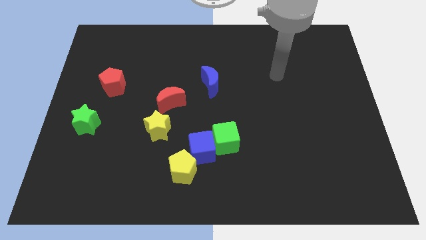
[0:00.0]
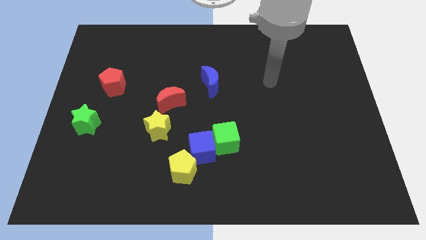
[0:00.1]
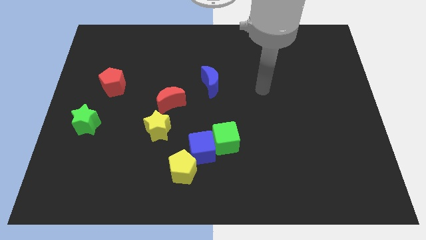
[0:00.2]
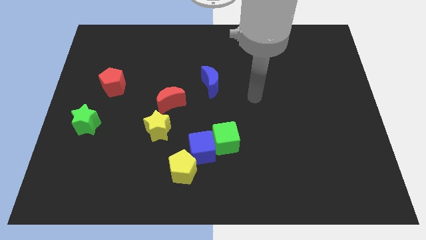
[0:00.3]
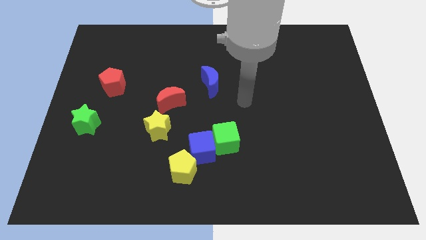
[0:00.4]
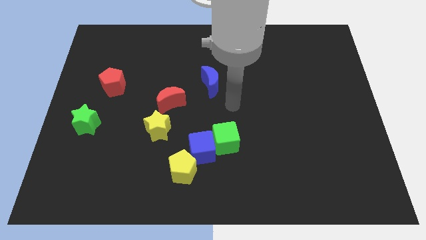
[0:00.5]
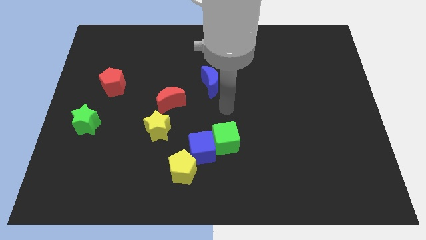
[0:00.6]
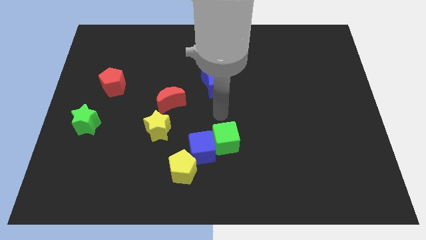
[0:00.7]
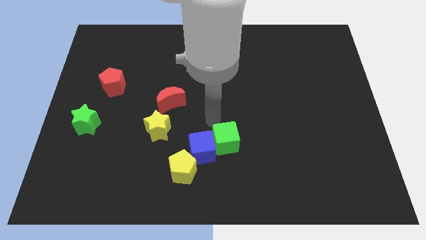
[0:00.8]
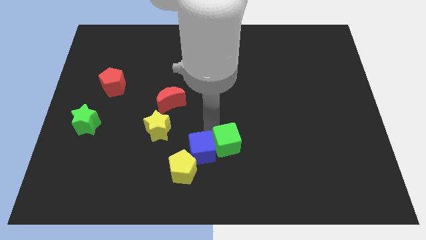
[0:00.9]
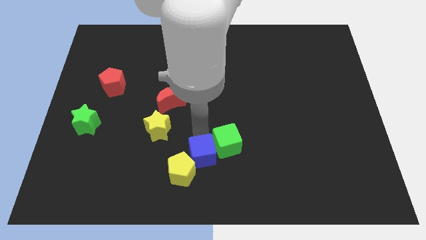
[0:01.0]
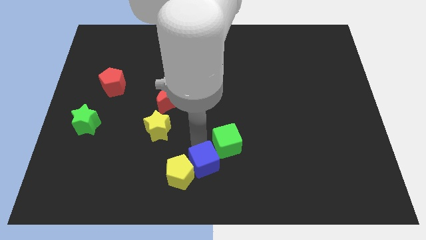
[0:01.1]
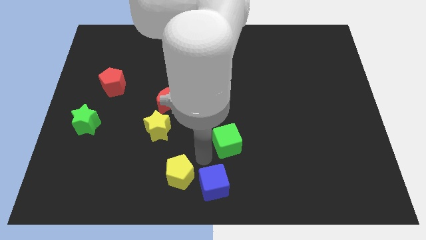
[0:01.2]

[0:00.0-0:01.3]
move the green cube away from the blue cube

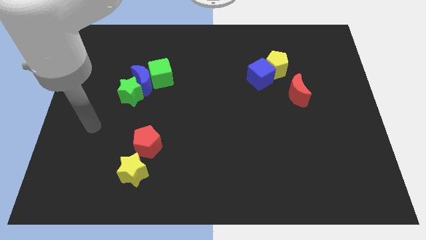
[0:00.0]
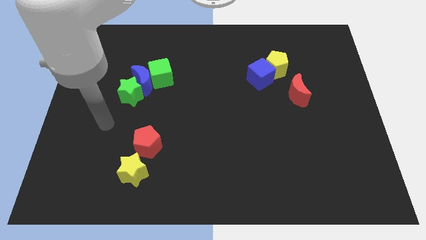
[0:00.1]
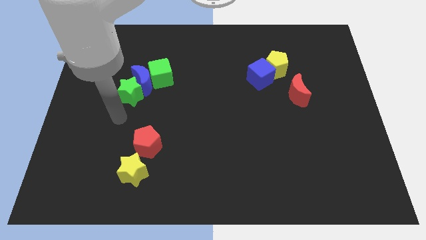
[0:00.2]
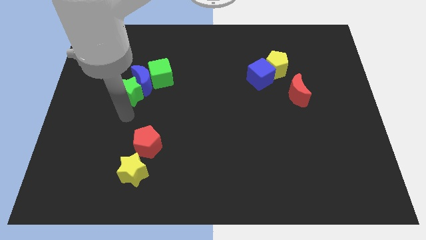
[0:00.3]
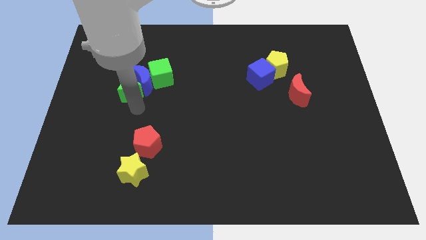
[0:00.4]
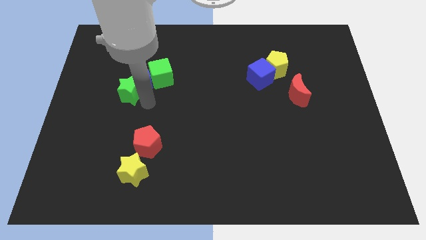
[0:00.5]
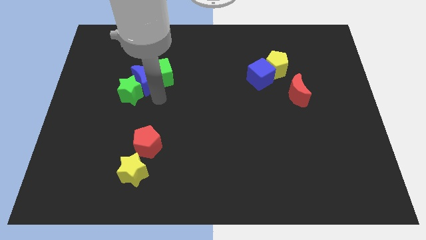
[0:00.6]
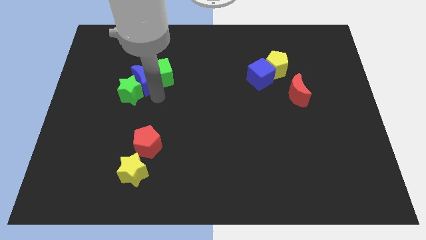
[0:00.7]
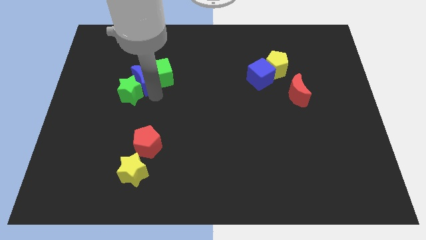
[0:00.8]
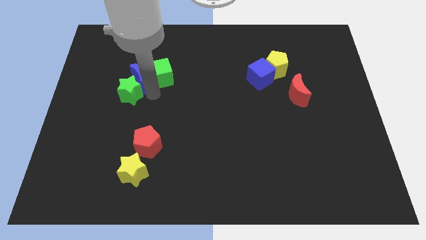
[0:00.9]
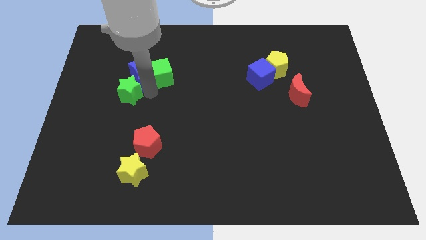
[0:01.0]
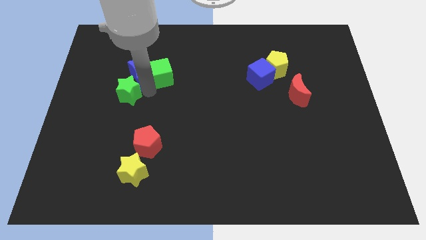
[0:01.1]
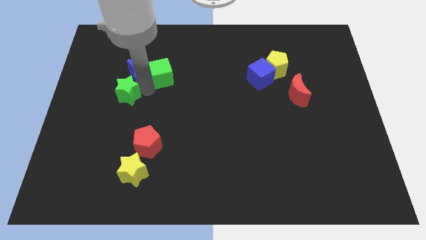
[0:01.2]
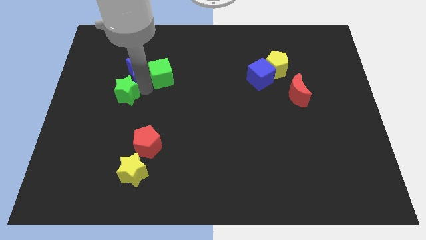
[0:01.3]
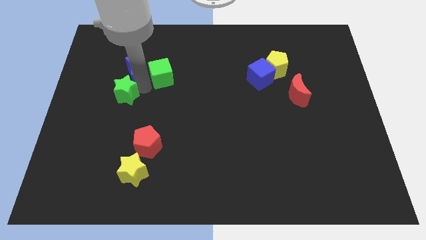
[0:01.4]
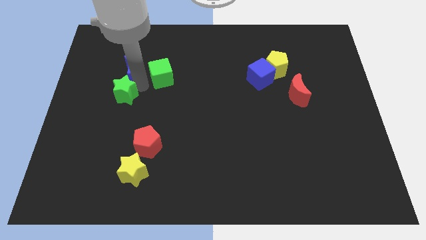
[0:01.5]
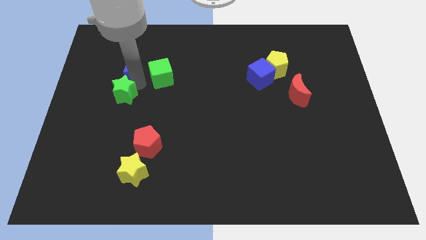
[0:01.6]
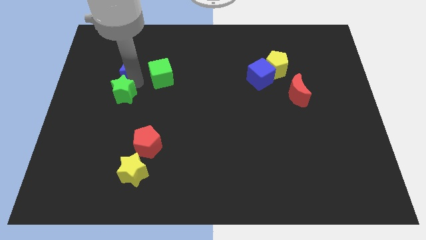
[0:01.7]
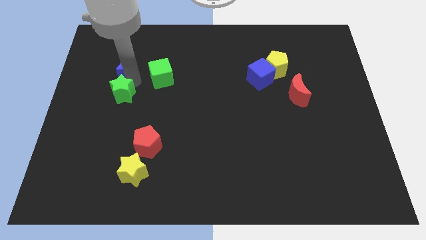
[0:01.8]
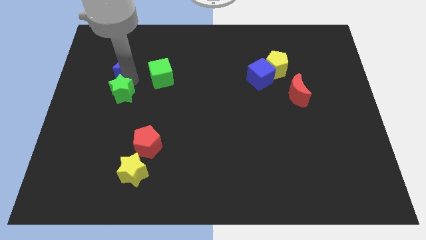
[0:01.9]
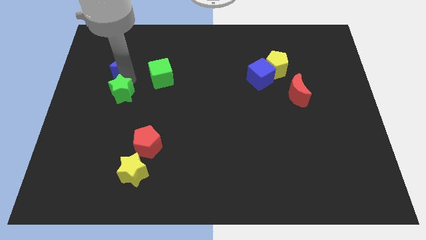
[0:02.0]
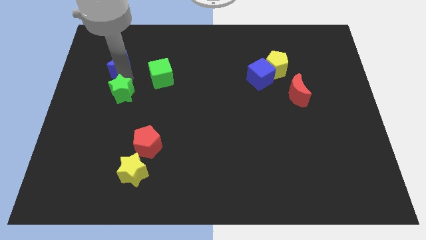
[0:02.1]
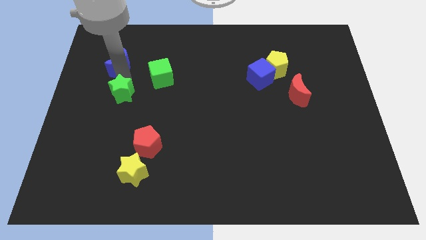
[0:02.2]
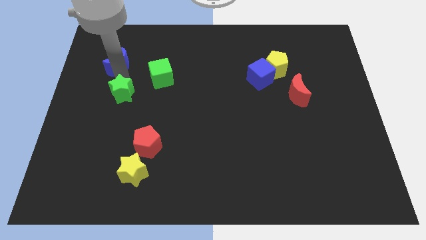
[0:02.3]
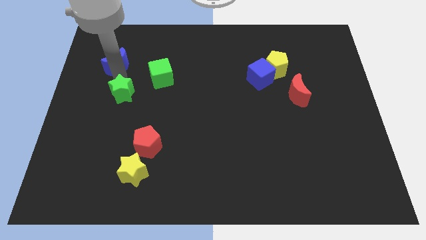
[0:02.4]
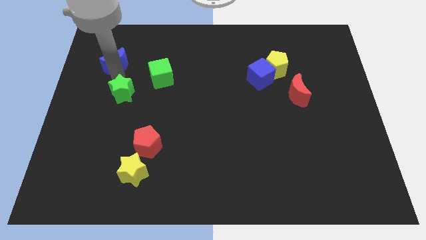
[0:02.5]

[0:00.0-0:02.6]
pull the blue moon apart from the green cube and green star

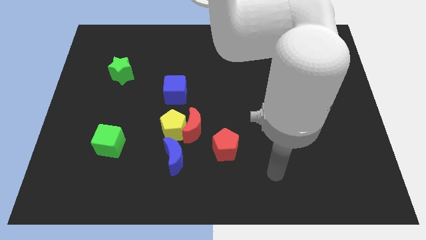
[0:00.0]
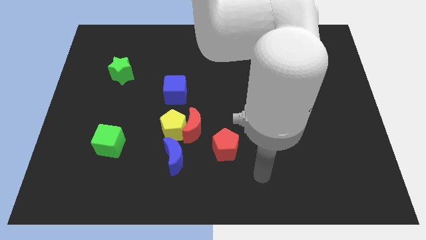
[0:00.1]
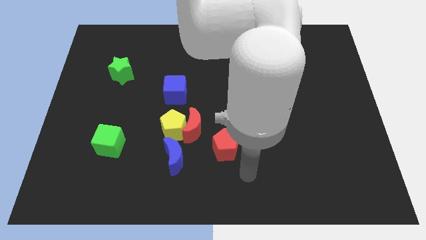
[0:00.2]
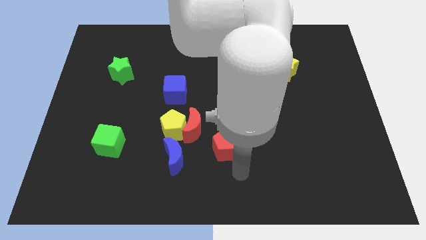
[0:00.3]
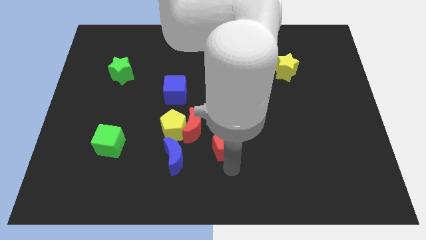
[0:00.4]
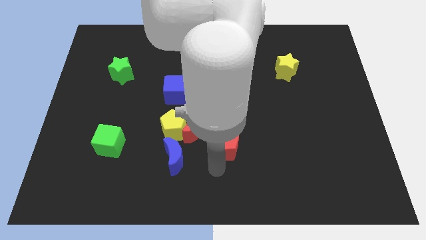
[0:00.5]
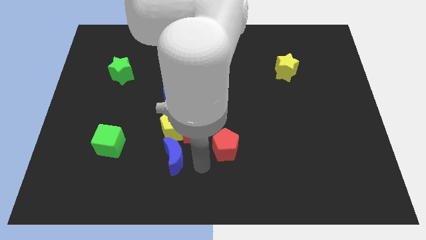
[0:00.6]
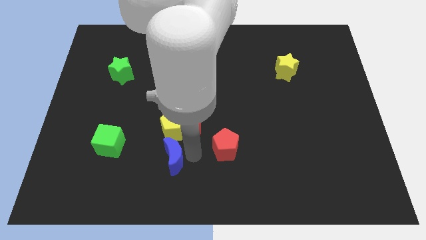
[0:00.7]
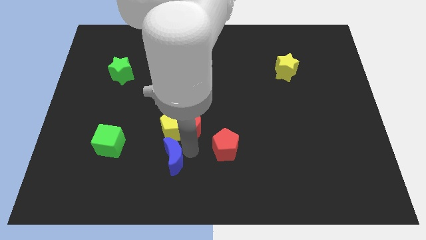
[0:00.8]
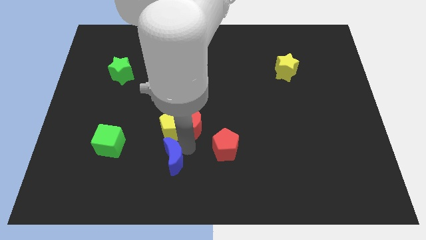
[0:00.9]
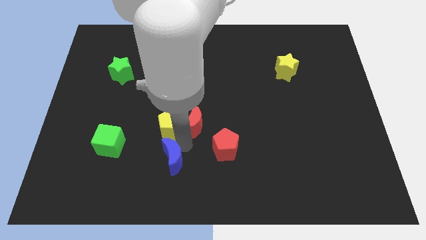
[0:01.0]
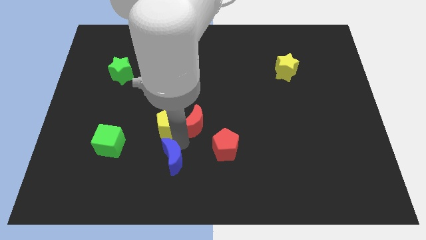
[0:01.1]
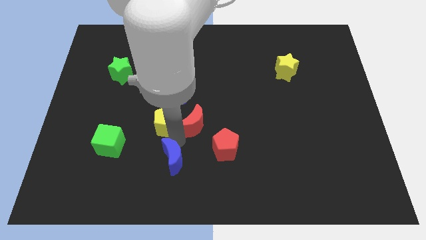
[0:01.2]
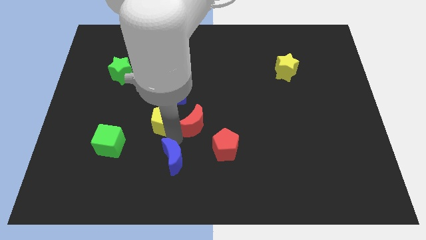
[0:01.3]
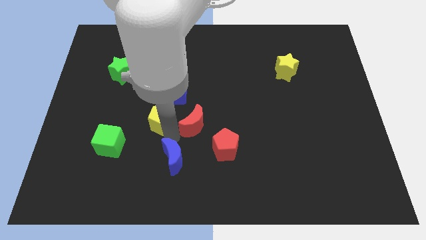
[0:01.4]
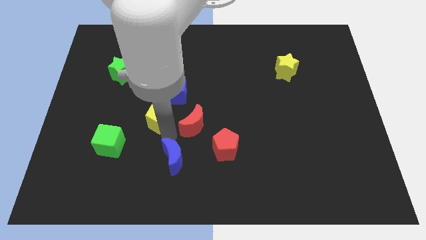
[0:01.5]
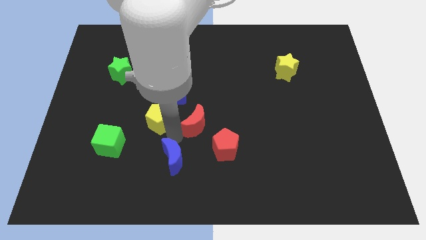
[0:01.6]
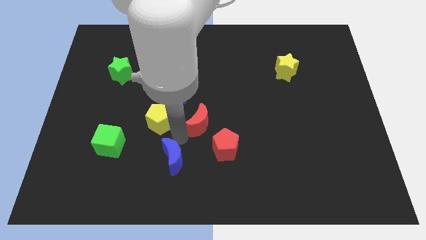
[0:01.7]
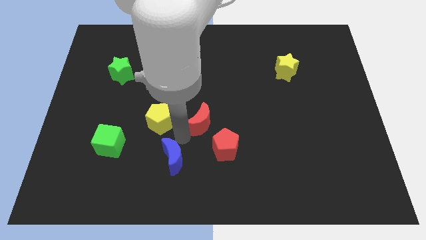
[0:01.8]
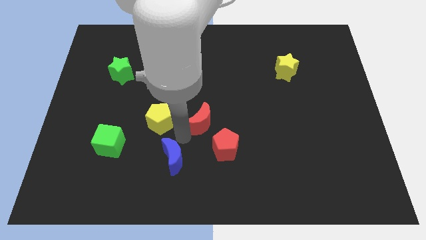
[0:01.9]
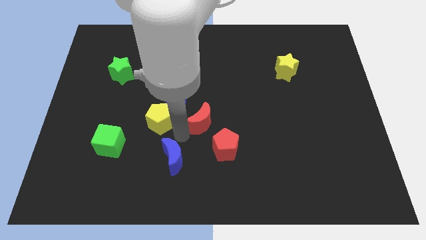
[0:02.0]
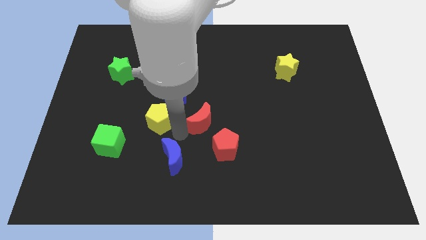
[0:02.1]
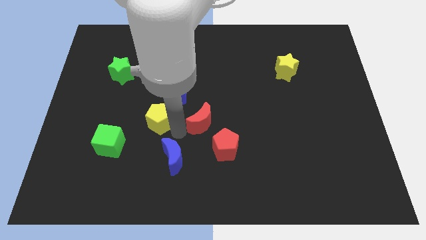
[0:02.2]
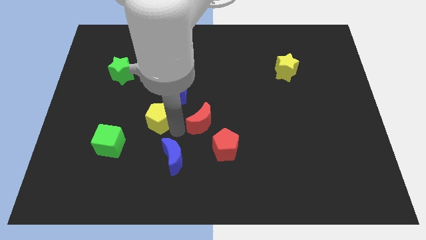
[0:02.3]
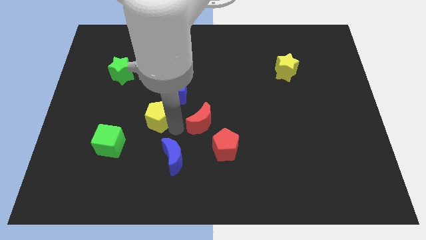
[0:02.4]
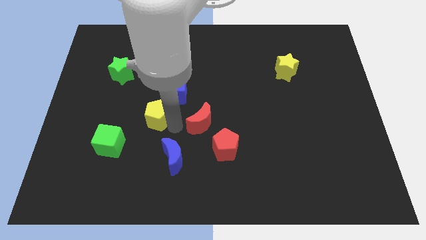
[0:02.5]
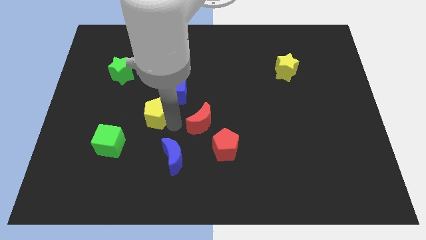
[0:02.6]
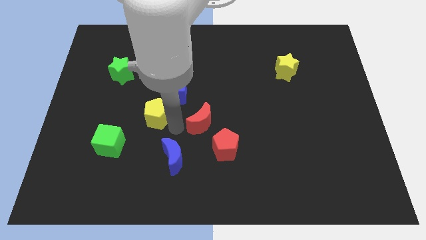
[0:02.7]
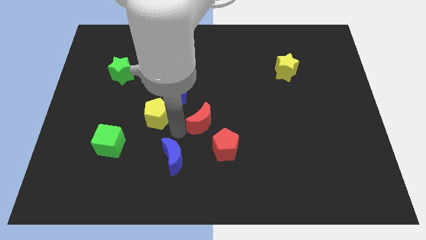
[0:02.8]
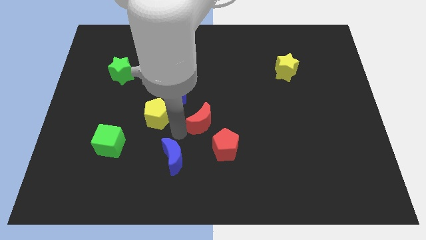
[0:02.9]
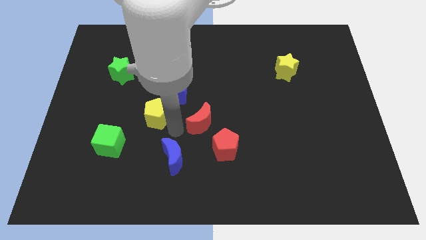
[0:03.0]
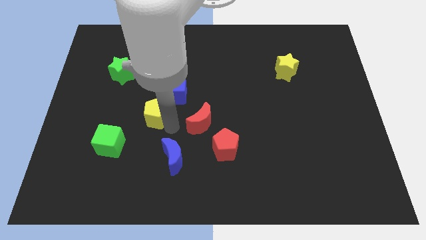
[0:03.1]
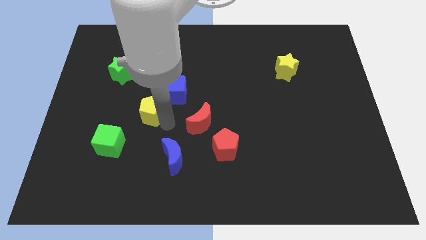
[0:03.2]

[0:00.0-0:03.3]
move the yellow pentagon away from the red moon and blue moon

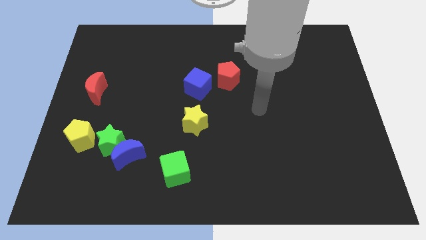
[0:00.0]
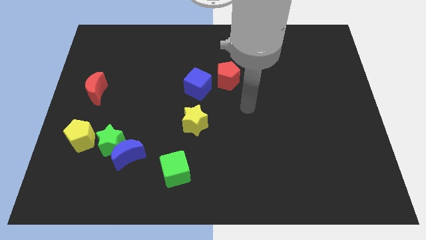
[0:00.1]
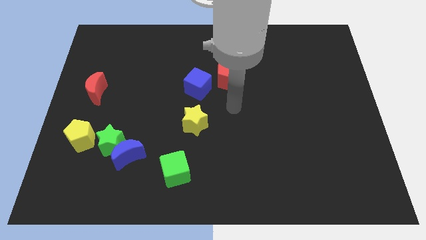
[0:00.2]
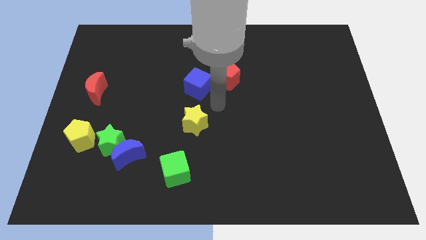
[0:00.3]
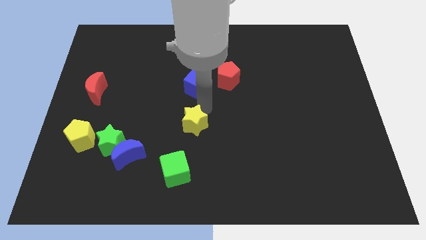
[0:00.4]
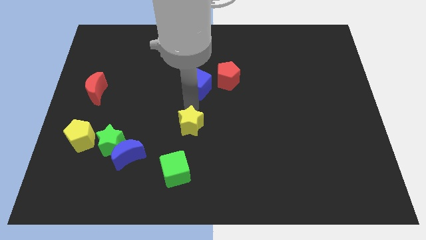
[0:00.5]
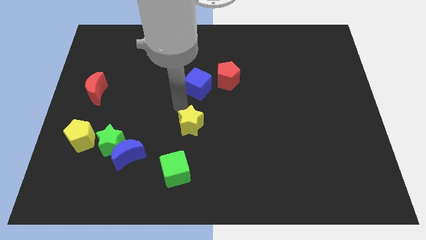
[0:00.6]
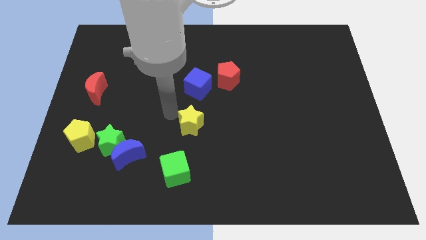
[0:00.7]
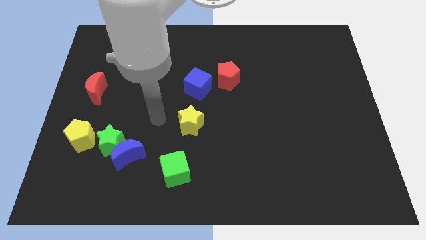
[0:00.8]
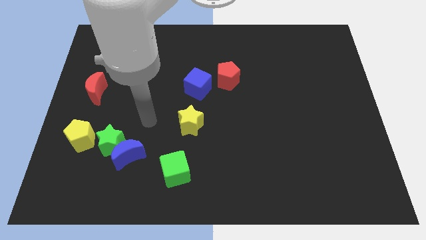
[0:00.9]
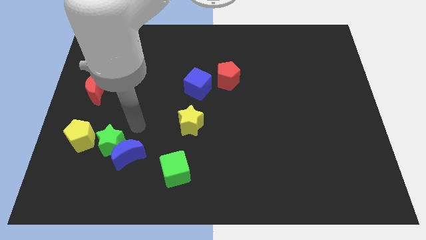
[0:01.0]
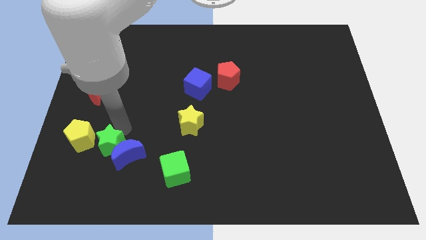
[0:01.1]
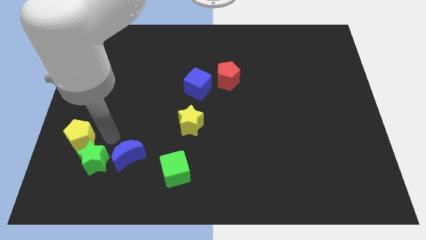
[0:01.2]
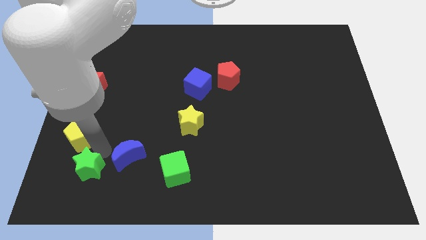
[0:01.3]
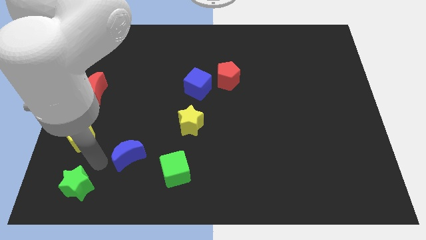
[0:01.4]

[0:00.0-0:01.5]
pull the blue moon apart from the green star

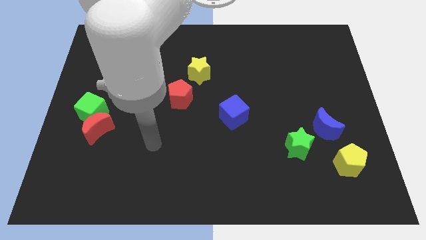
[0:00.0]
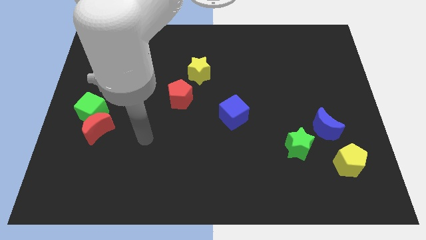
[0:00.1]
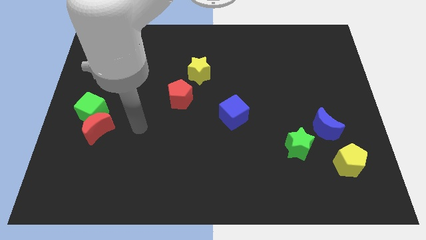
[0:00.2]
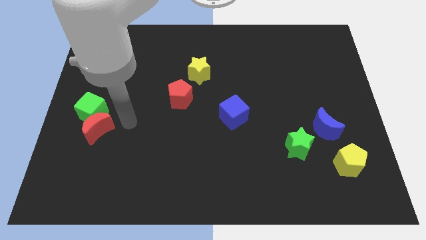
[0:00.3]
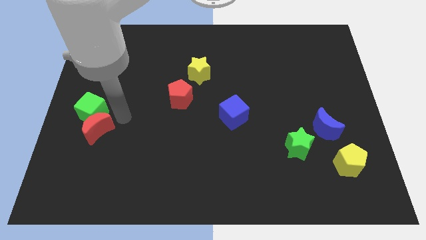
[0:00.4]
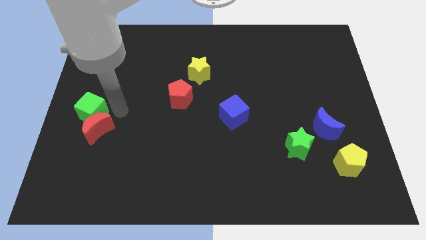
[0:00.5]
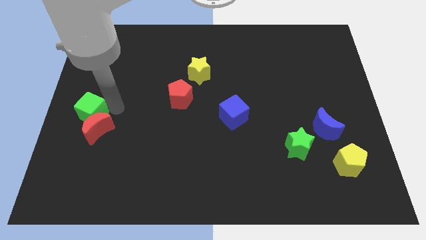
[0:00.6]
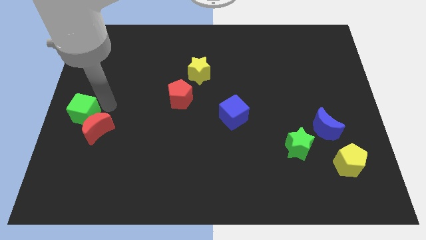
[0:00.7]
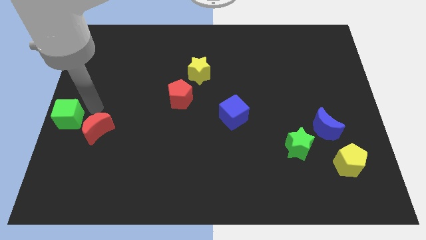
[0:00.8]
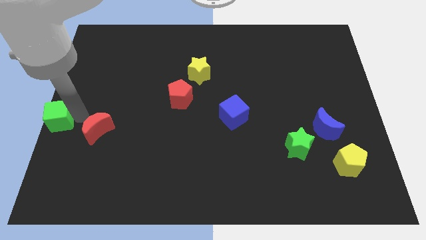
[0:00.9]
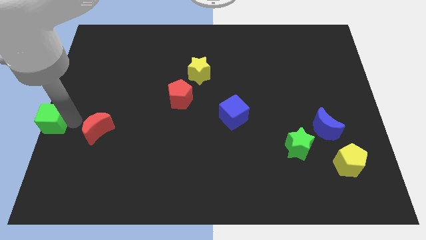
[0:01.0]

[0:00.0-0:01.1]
move the red moon away from the green cube
